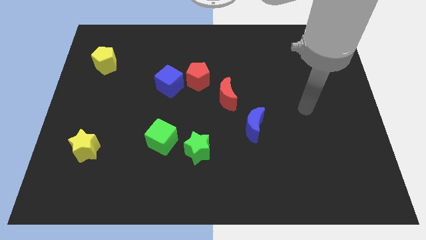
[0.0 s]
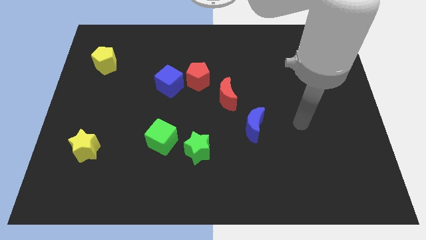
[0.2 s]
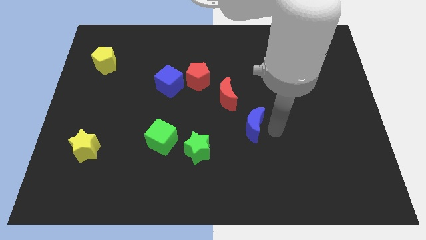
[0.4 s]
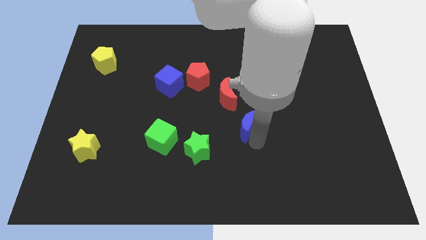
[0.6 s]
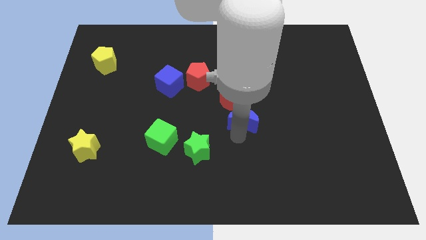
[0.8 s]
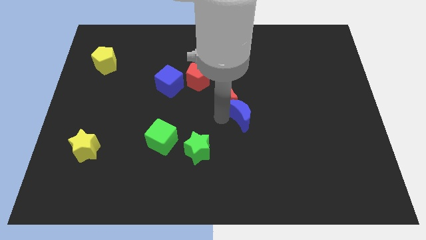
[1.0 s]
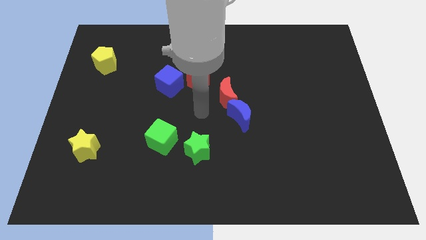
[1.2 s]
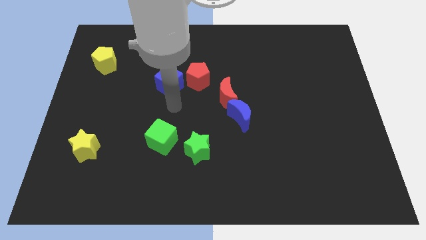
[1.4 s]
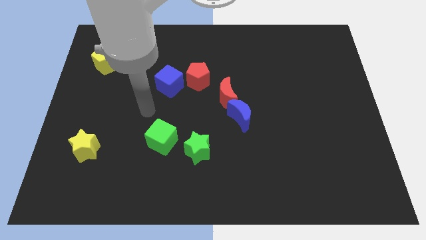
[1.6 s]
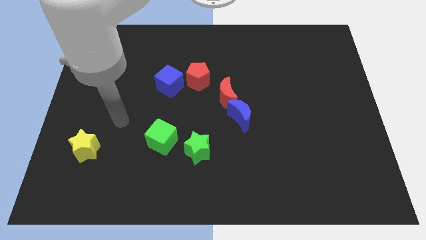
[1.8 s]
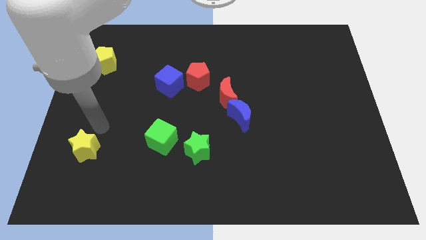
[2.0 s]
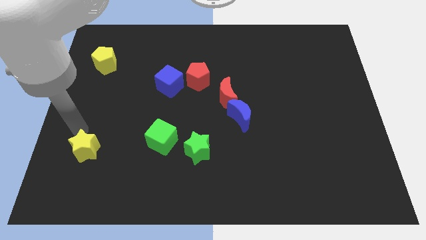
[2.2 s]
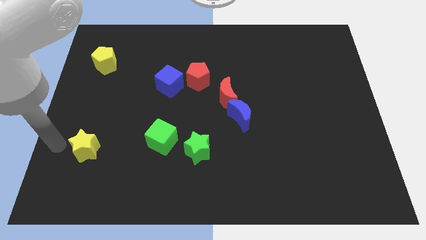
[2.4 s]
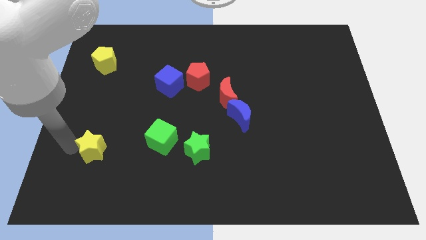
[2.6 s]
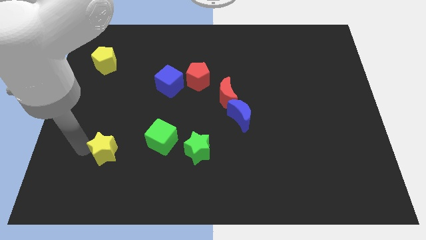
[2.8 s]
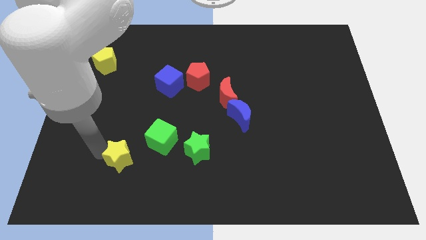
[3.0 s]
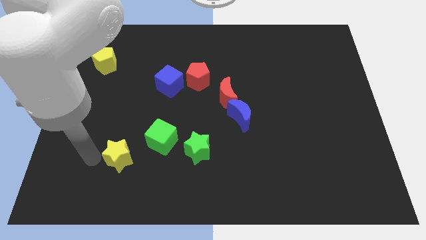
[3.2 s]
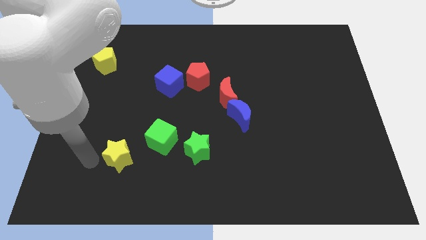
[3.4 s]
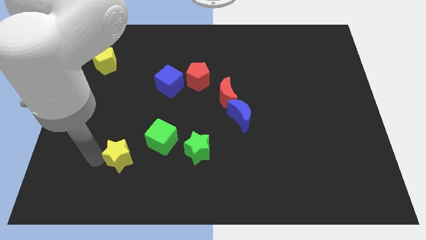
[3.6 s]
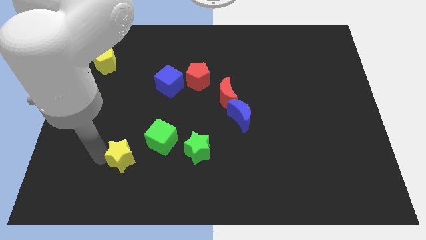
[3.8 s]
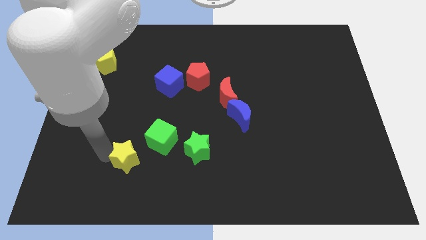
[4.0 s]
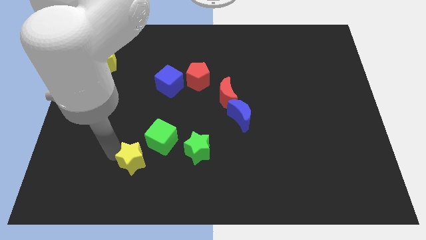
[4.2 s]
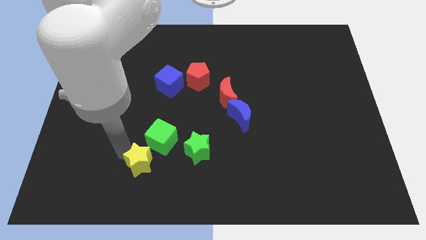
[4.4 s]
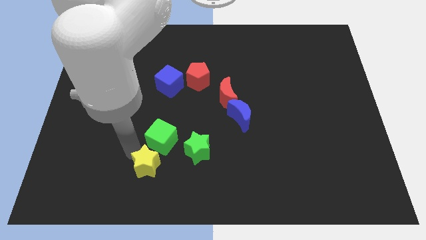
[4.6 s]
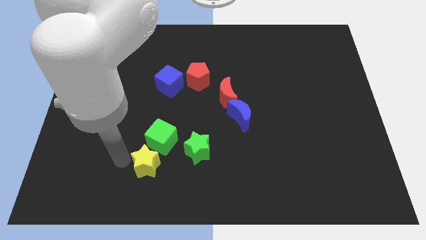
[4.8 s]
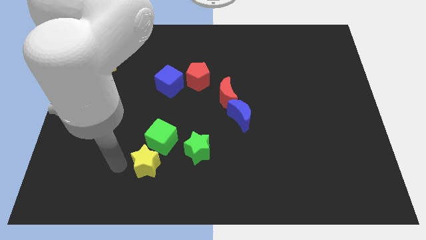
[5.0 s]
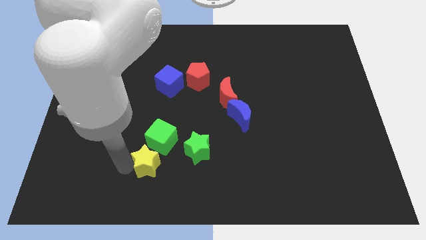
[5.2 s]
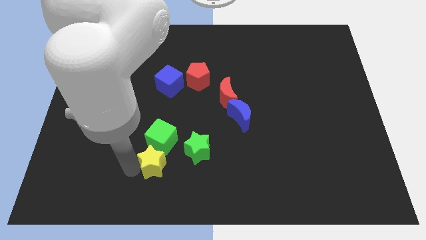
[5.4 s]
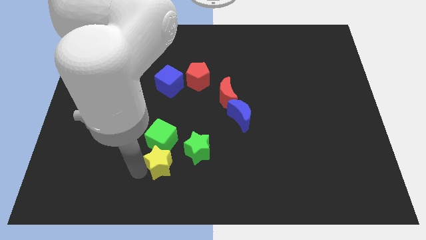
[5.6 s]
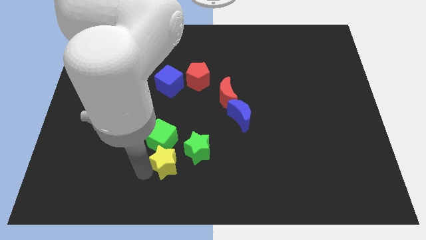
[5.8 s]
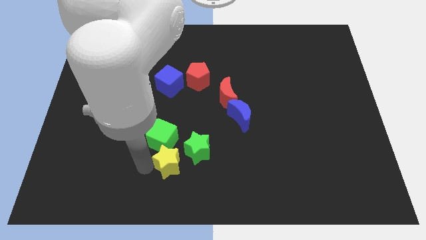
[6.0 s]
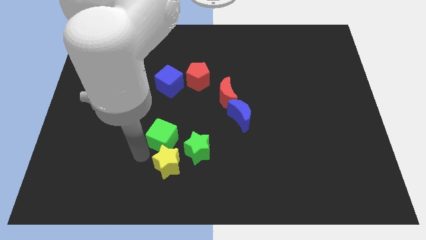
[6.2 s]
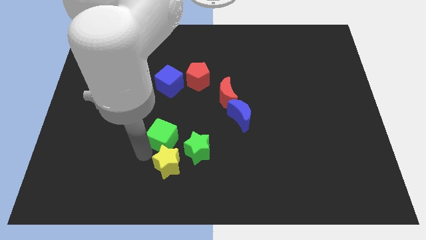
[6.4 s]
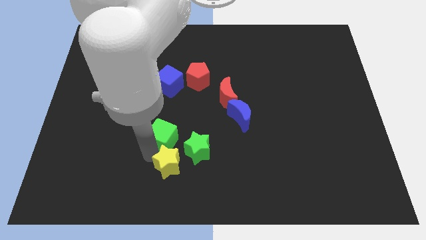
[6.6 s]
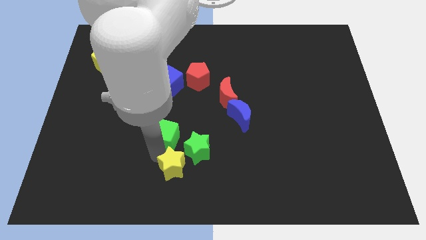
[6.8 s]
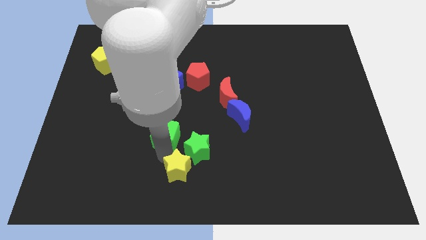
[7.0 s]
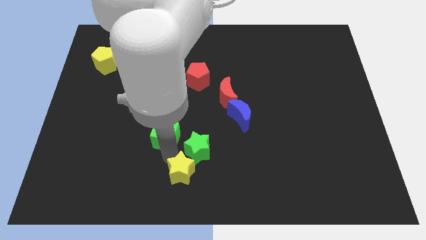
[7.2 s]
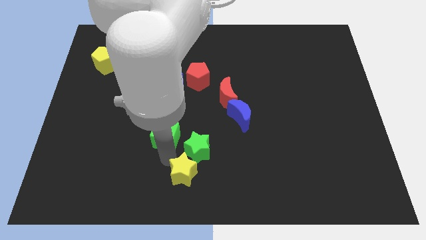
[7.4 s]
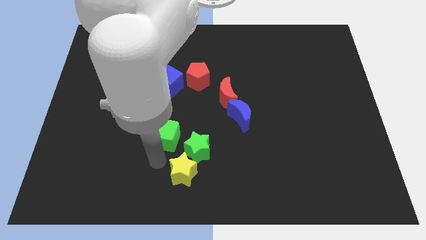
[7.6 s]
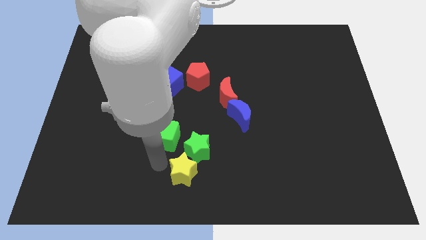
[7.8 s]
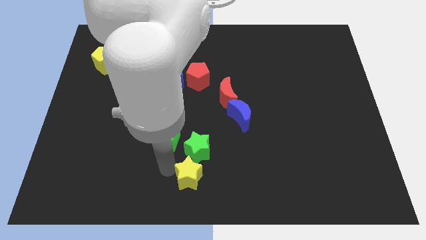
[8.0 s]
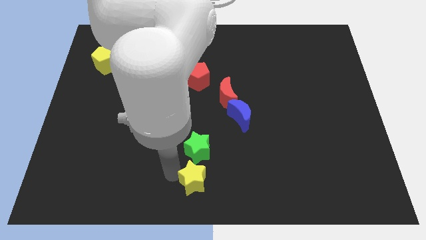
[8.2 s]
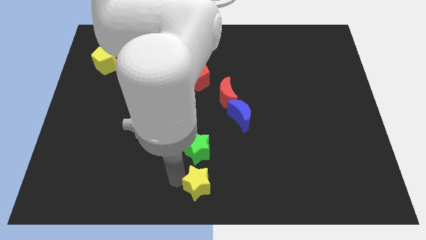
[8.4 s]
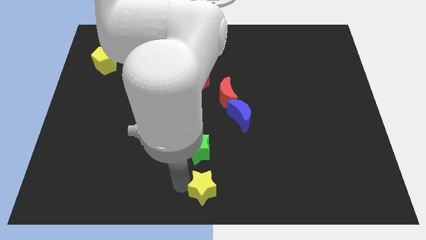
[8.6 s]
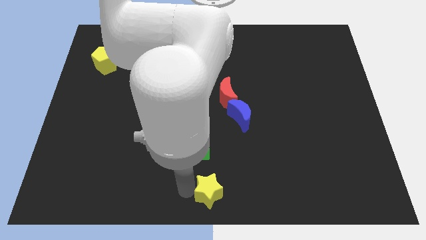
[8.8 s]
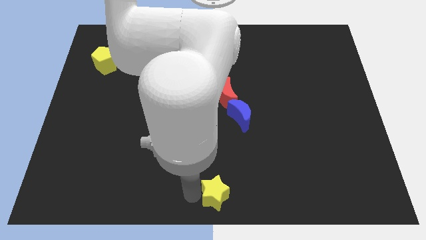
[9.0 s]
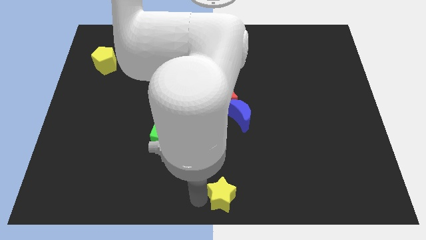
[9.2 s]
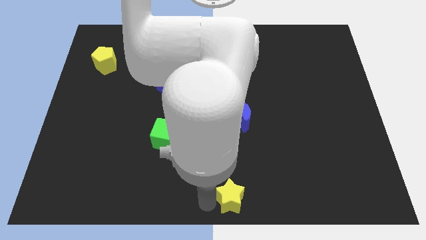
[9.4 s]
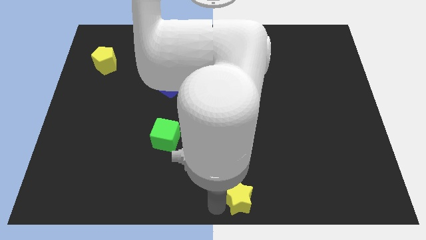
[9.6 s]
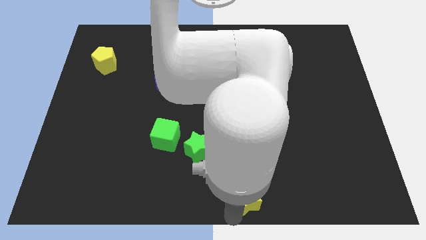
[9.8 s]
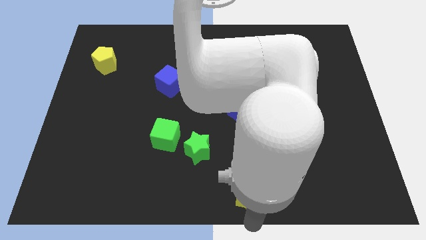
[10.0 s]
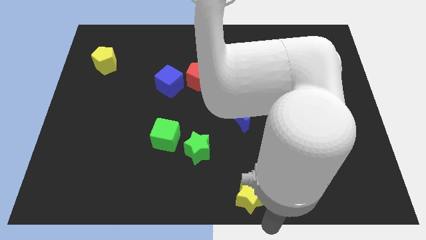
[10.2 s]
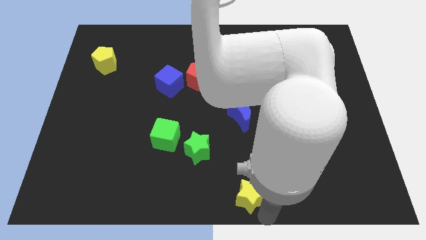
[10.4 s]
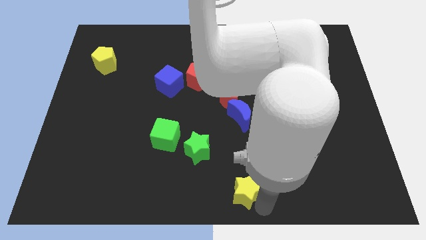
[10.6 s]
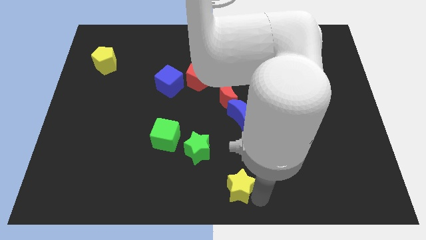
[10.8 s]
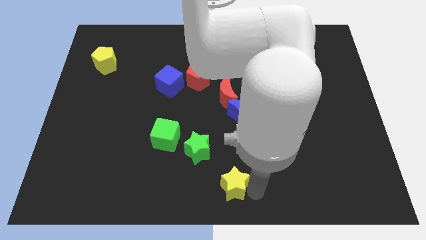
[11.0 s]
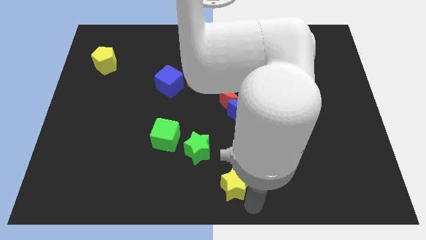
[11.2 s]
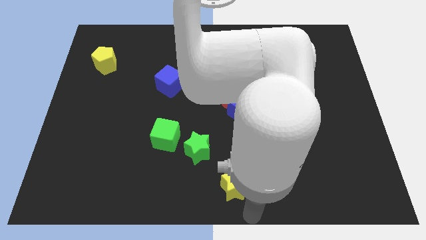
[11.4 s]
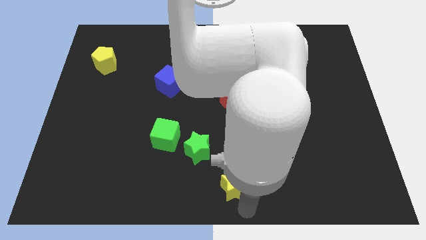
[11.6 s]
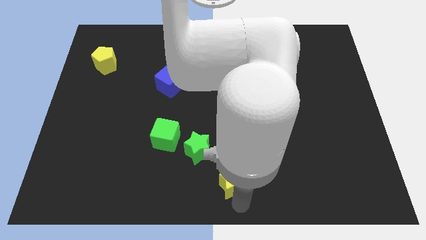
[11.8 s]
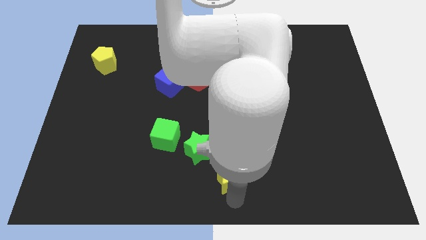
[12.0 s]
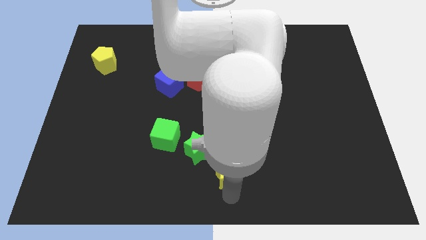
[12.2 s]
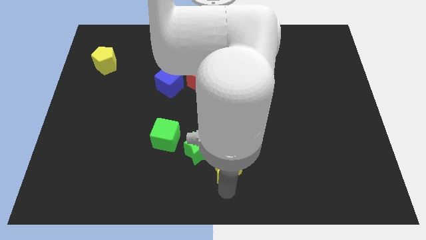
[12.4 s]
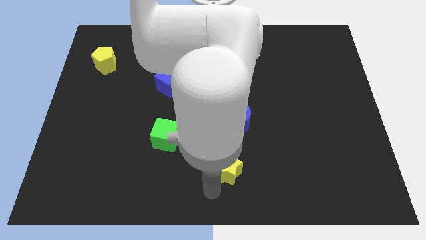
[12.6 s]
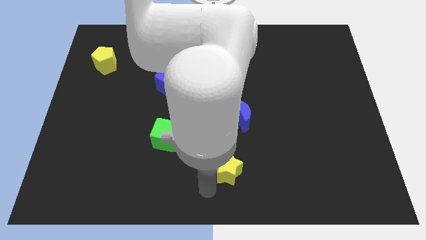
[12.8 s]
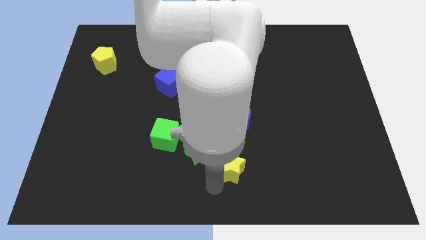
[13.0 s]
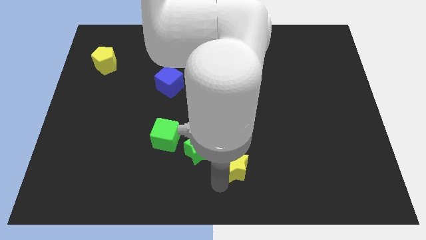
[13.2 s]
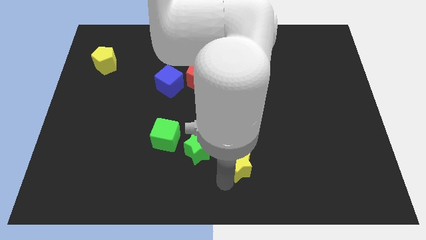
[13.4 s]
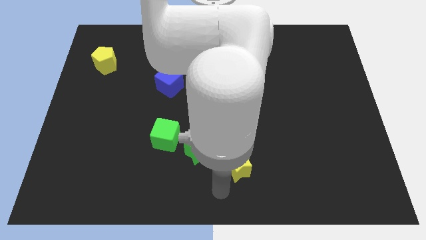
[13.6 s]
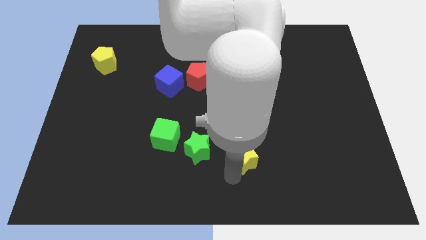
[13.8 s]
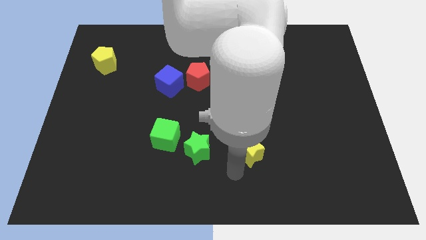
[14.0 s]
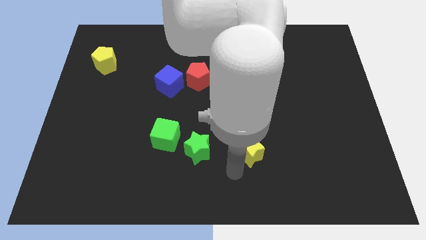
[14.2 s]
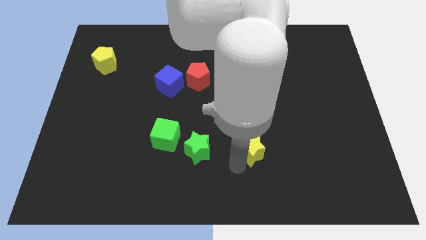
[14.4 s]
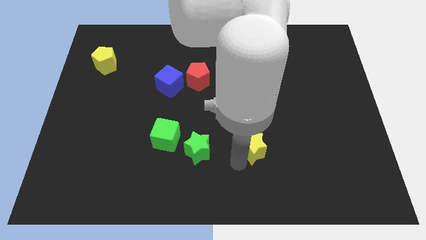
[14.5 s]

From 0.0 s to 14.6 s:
push the yellow star diagonally down and to the right of the blue moon
